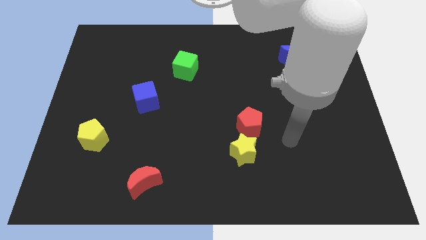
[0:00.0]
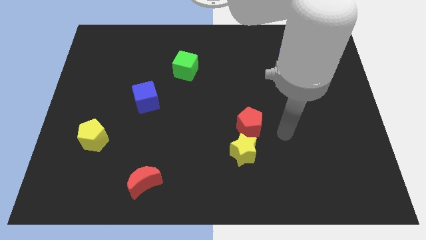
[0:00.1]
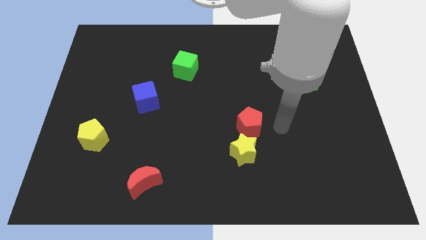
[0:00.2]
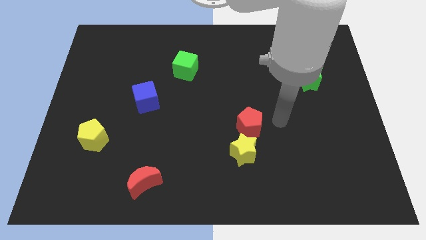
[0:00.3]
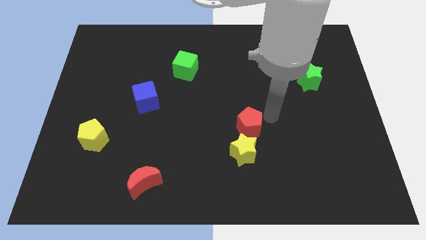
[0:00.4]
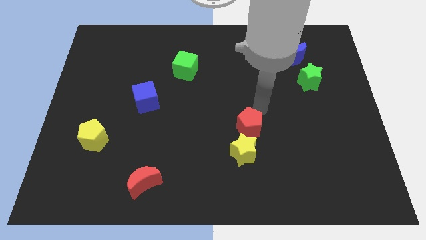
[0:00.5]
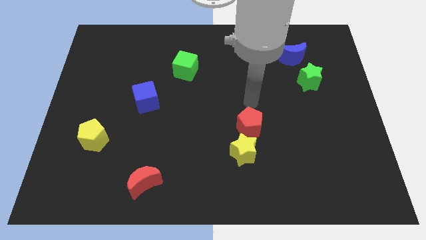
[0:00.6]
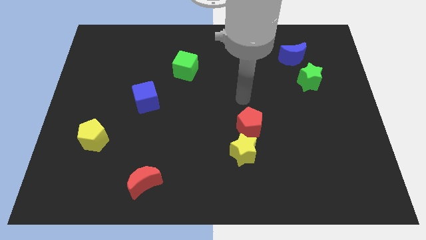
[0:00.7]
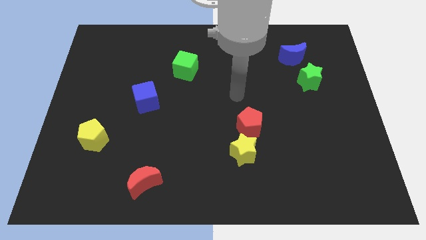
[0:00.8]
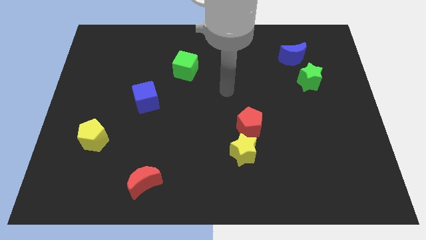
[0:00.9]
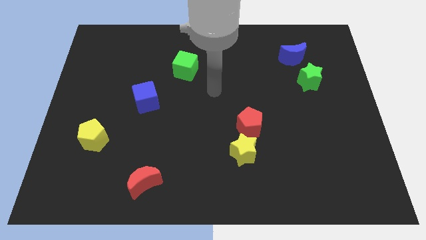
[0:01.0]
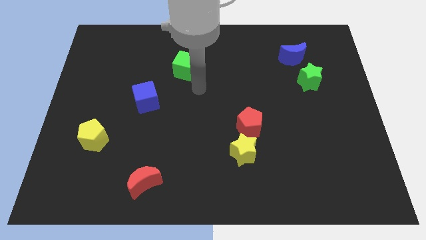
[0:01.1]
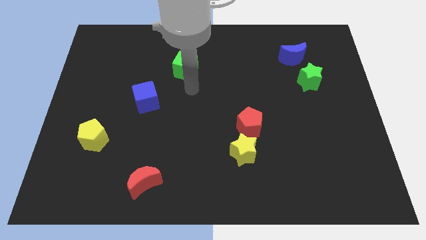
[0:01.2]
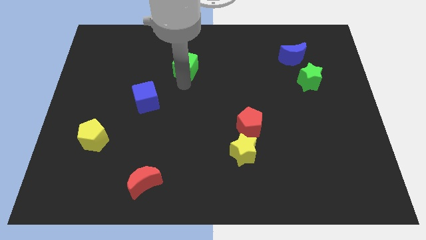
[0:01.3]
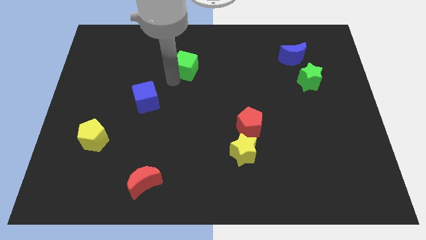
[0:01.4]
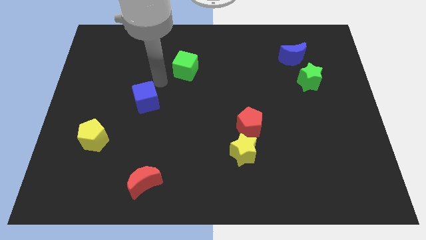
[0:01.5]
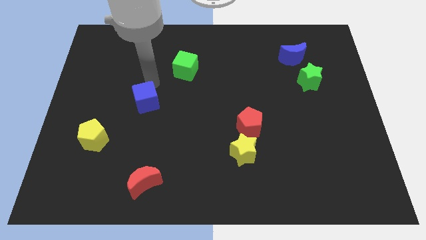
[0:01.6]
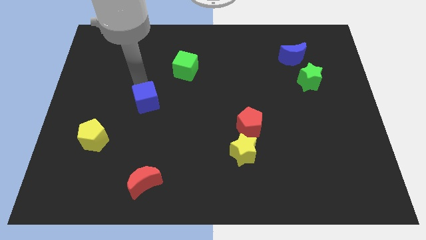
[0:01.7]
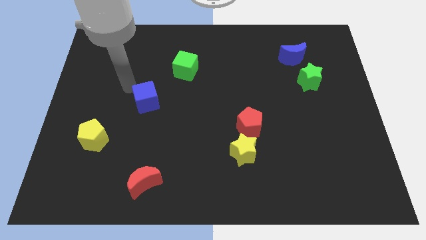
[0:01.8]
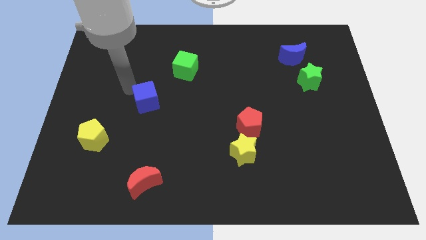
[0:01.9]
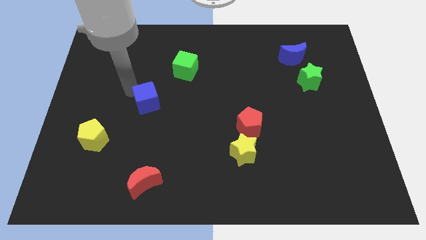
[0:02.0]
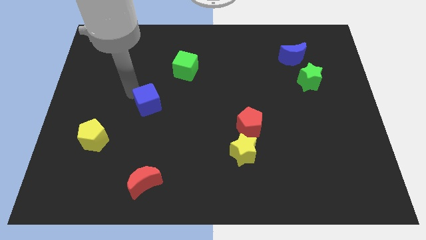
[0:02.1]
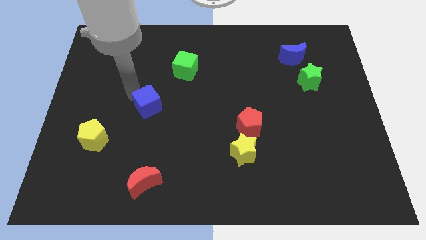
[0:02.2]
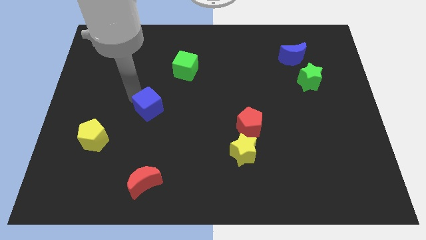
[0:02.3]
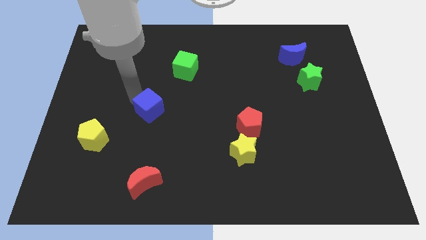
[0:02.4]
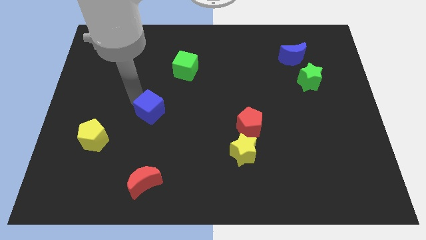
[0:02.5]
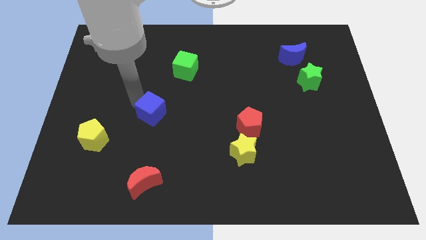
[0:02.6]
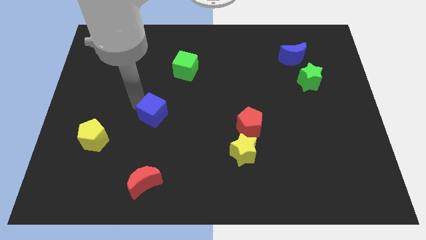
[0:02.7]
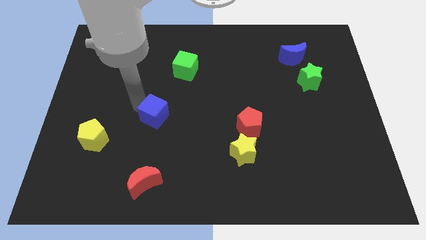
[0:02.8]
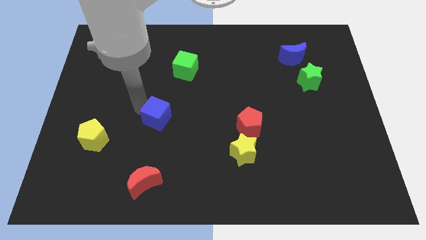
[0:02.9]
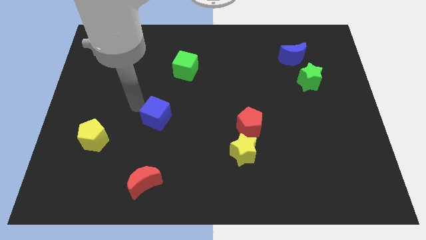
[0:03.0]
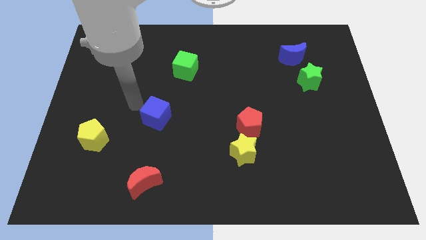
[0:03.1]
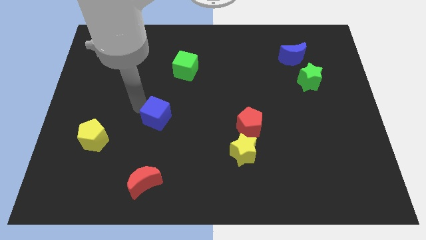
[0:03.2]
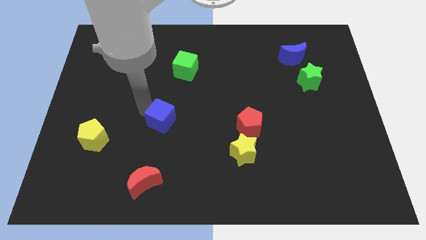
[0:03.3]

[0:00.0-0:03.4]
push the blue cube down and right a bit

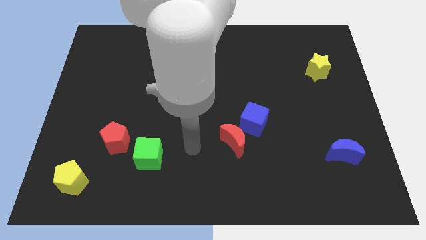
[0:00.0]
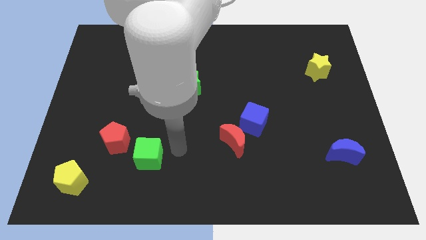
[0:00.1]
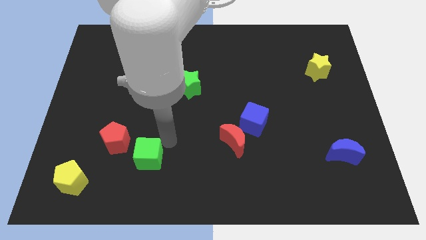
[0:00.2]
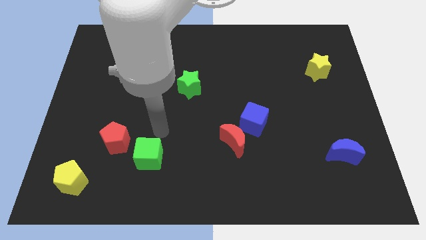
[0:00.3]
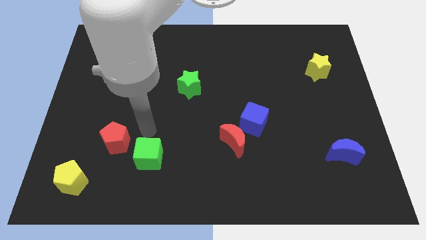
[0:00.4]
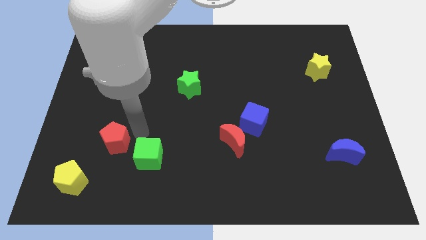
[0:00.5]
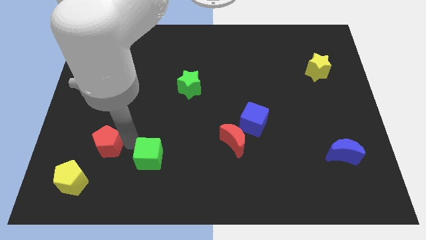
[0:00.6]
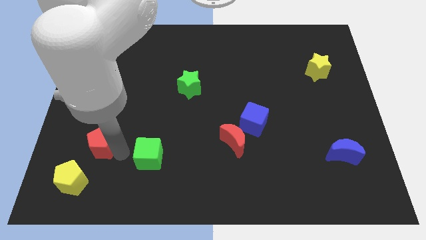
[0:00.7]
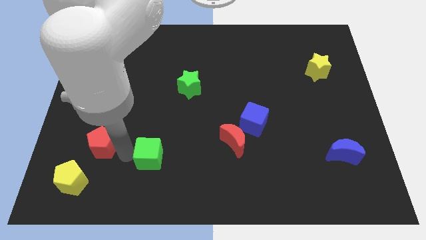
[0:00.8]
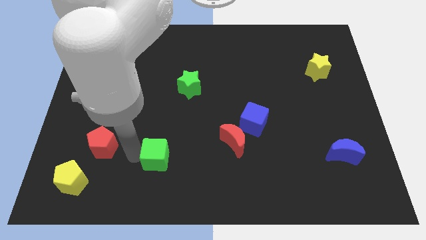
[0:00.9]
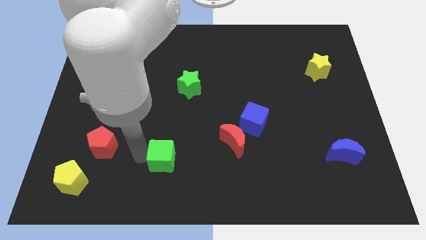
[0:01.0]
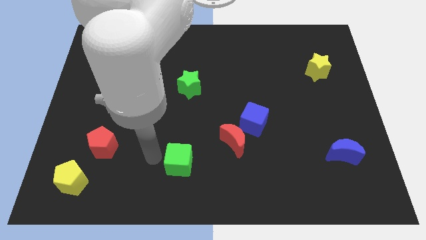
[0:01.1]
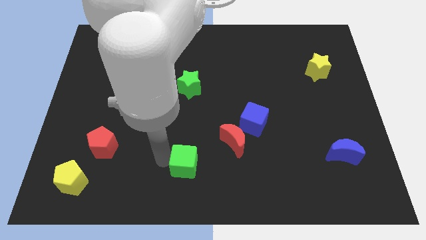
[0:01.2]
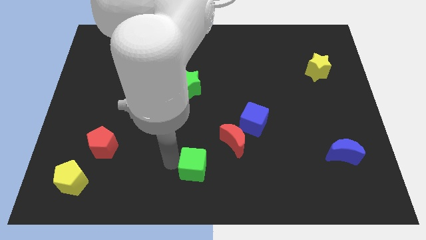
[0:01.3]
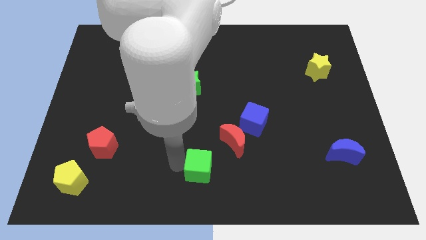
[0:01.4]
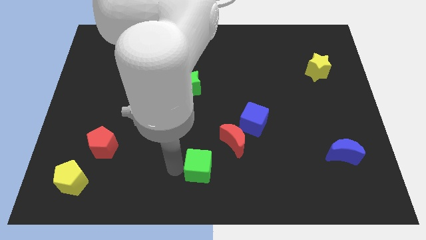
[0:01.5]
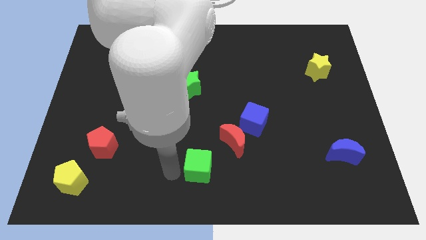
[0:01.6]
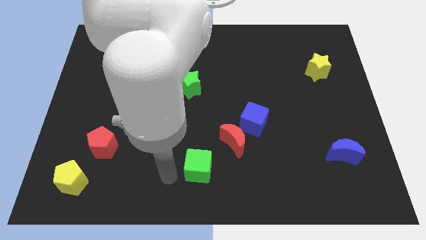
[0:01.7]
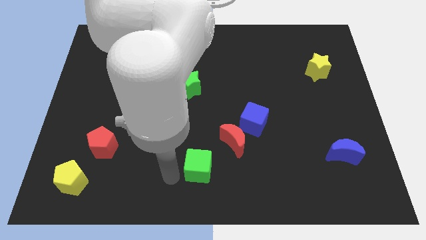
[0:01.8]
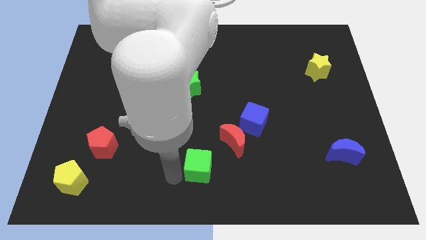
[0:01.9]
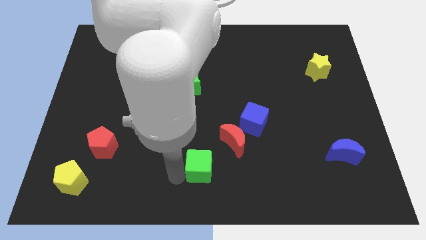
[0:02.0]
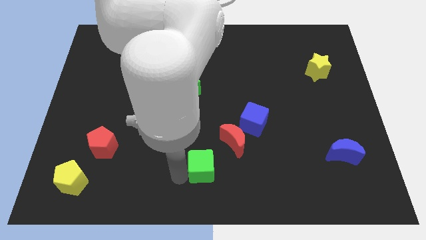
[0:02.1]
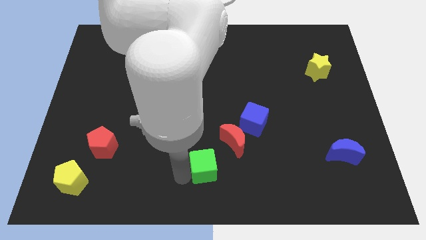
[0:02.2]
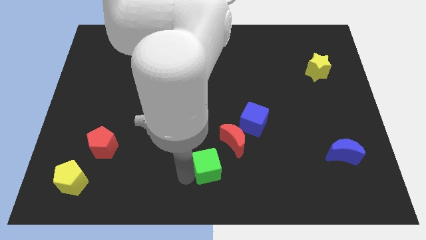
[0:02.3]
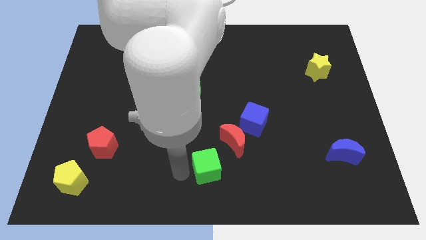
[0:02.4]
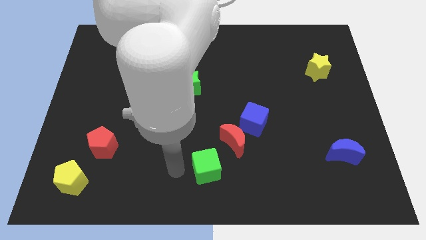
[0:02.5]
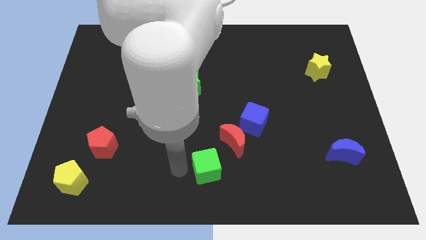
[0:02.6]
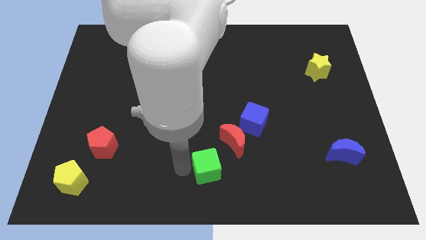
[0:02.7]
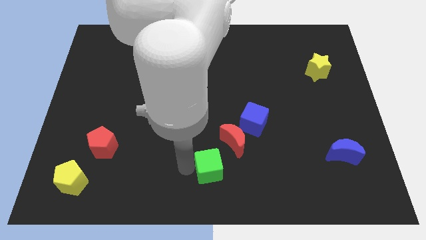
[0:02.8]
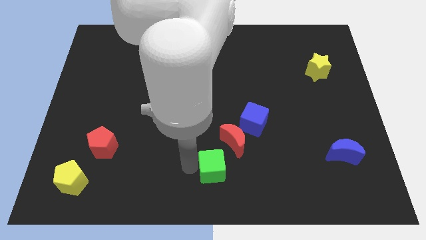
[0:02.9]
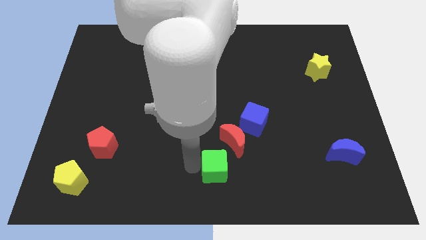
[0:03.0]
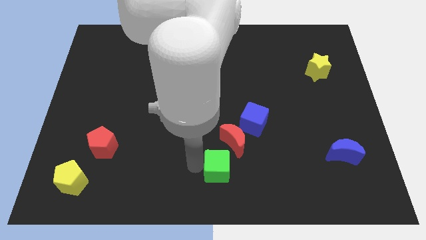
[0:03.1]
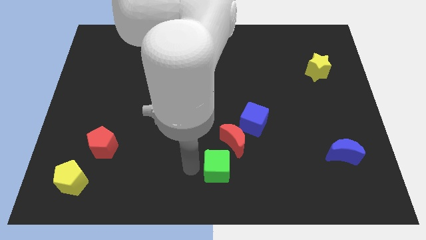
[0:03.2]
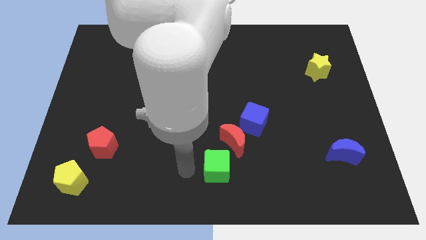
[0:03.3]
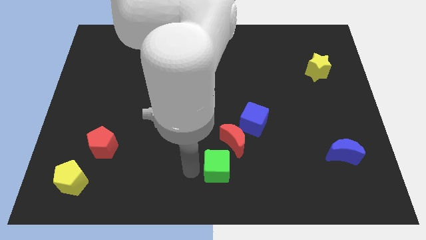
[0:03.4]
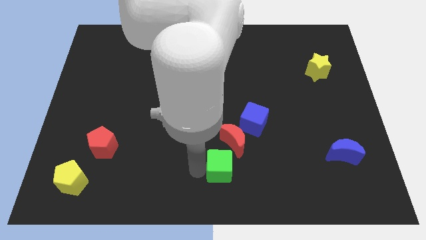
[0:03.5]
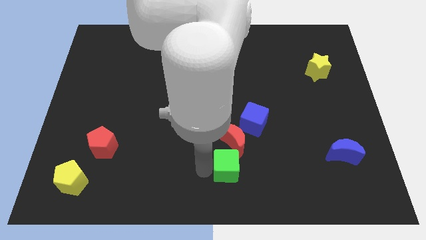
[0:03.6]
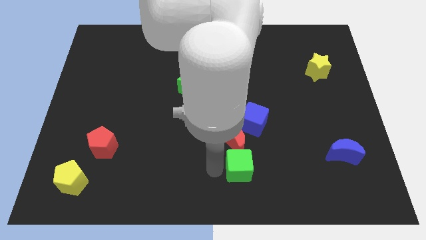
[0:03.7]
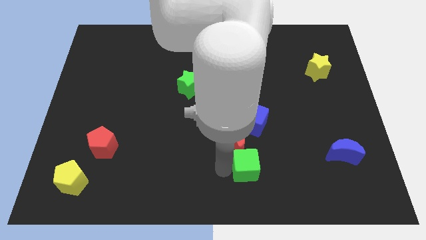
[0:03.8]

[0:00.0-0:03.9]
push the green cube right

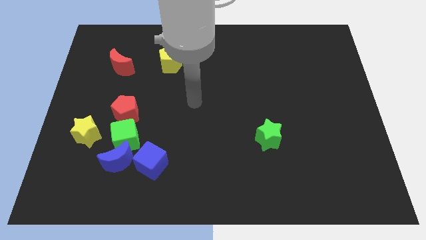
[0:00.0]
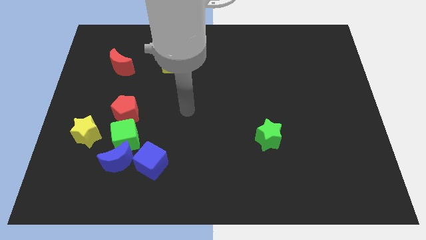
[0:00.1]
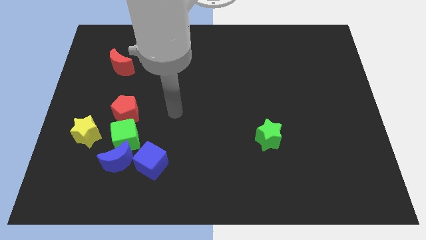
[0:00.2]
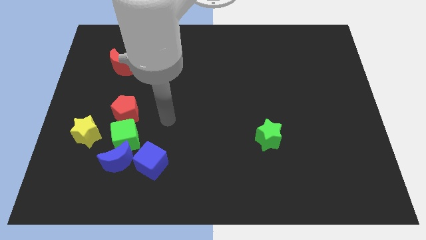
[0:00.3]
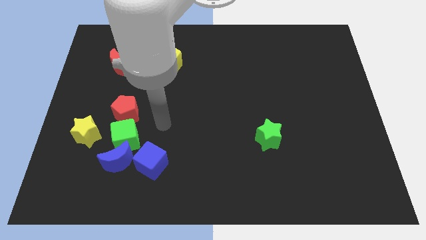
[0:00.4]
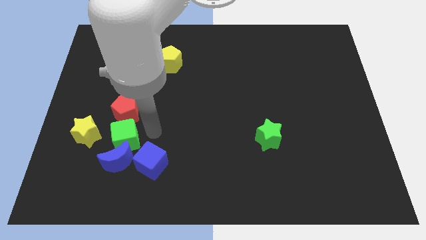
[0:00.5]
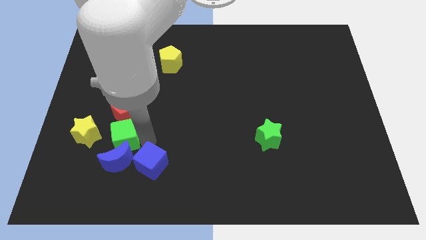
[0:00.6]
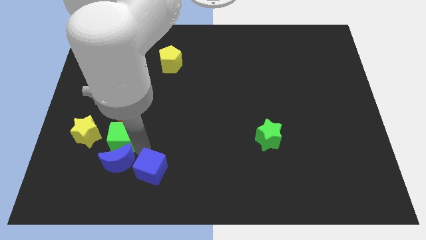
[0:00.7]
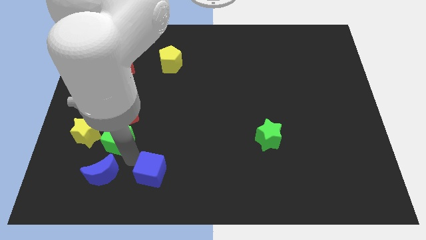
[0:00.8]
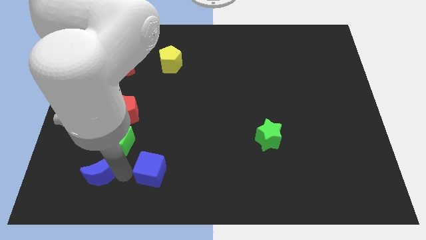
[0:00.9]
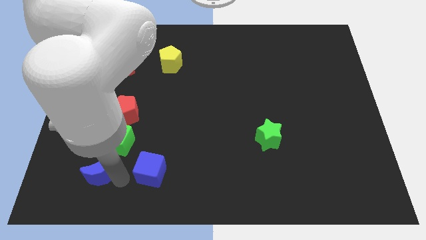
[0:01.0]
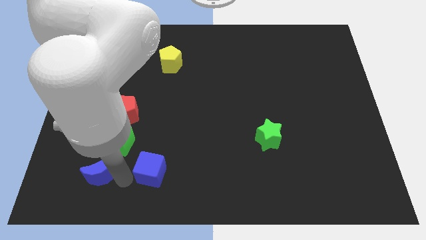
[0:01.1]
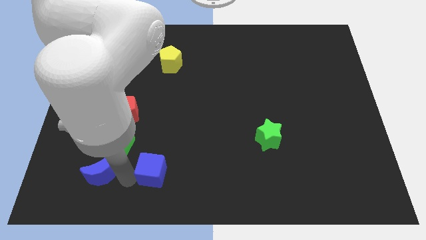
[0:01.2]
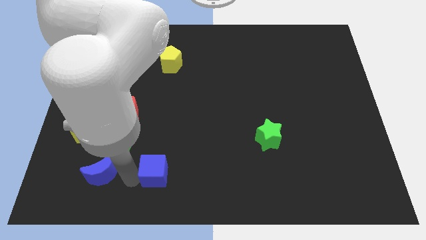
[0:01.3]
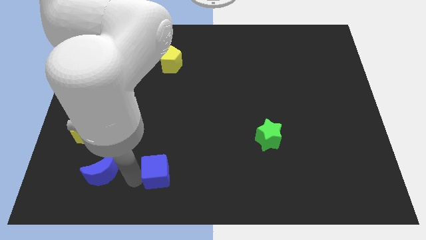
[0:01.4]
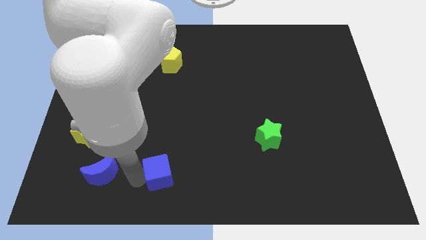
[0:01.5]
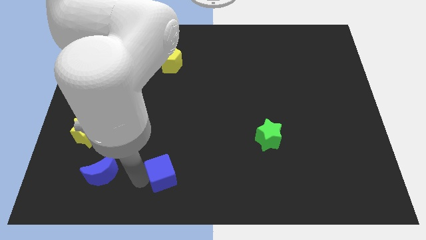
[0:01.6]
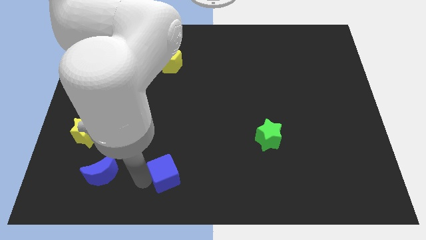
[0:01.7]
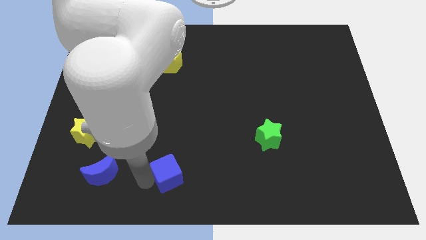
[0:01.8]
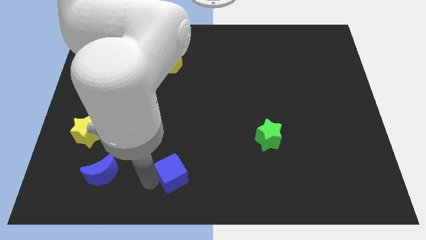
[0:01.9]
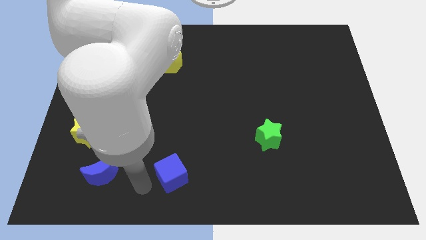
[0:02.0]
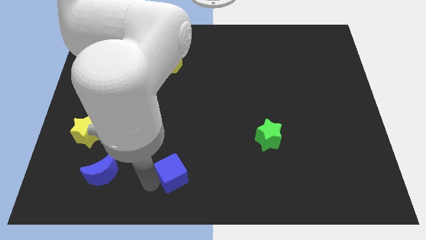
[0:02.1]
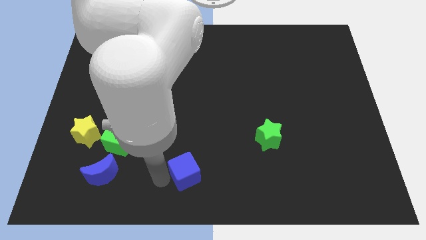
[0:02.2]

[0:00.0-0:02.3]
slide the blue cube right a little
